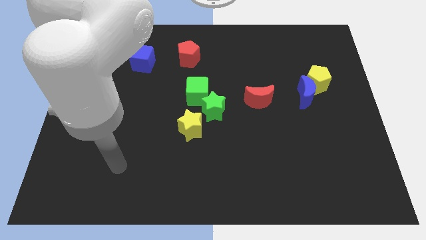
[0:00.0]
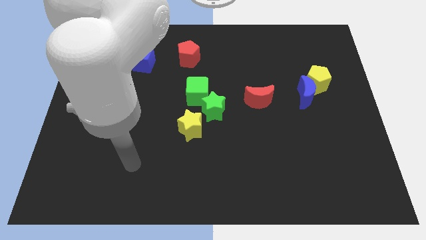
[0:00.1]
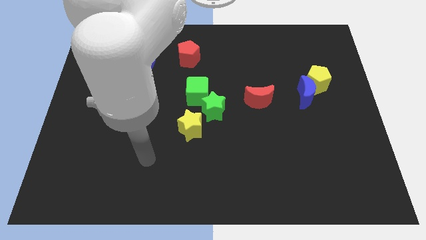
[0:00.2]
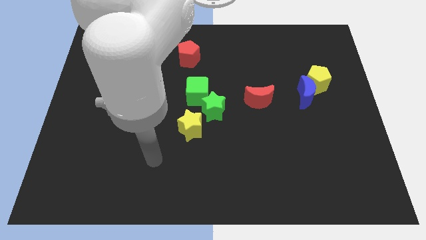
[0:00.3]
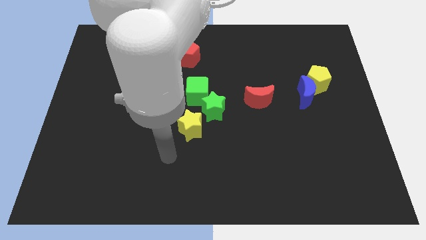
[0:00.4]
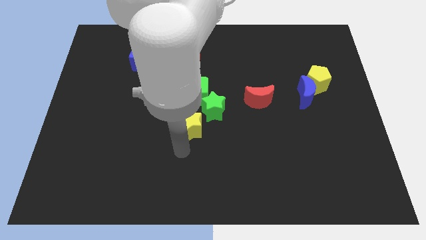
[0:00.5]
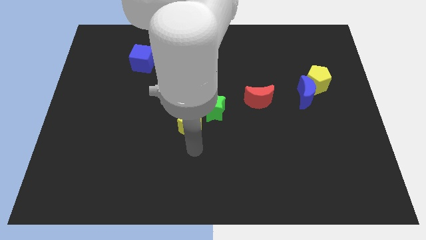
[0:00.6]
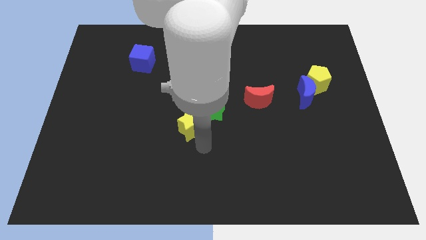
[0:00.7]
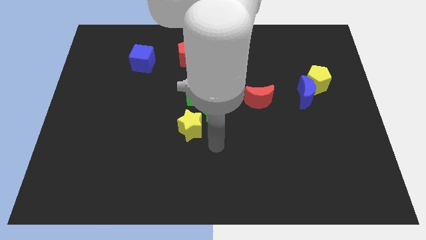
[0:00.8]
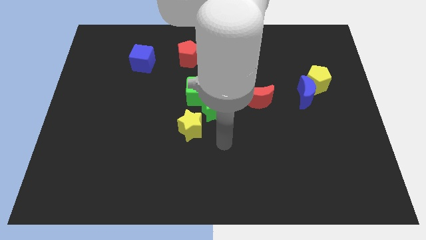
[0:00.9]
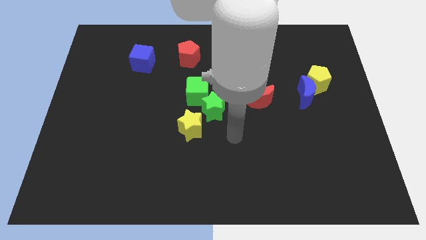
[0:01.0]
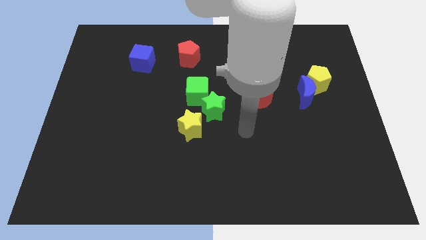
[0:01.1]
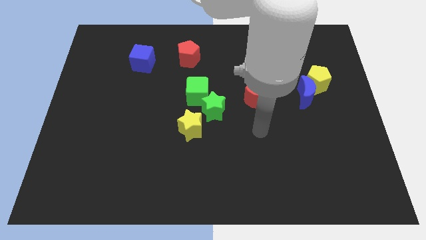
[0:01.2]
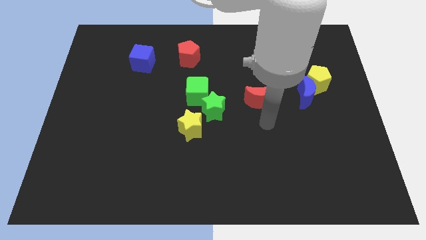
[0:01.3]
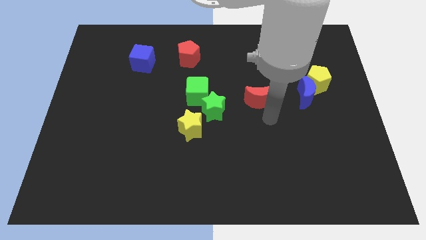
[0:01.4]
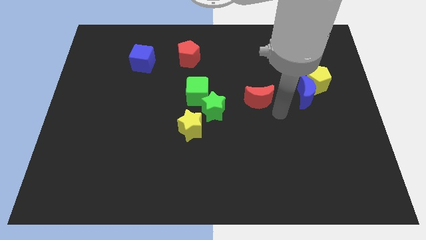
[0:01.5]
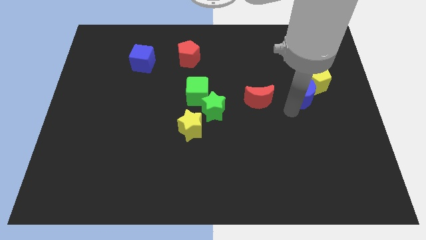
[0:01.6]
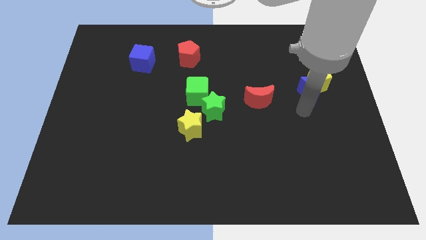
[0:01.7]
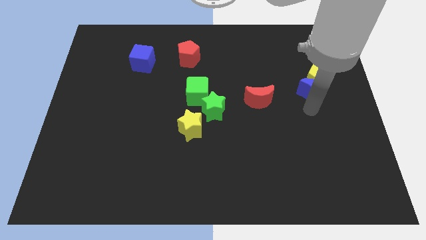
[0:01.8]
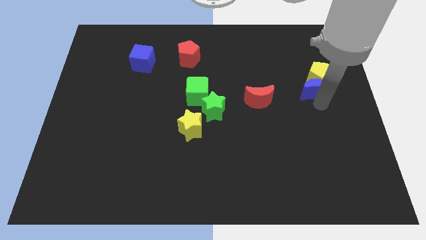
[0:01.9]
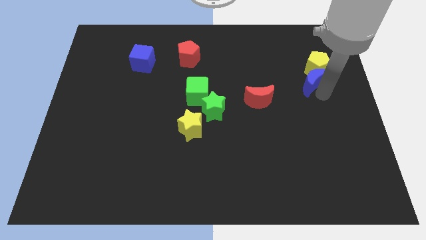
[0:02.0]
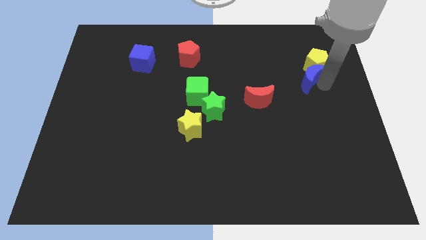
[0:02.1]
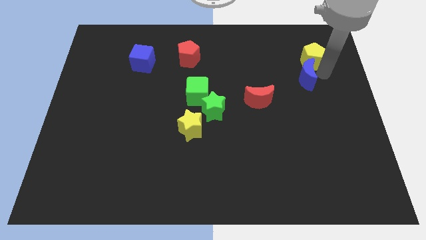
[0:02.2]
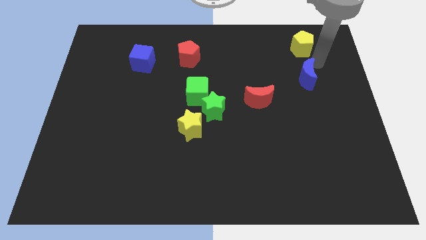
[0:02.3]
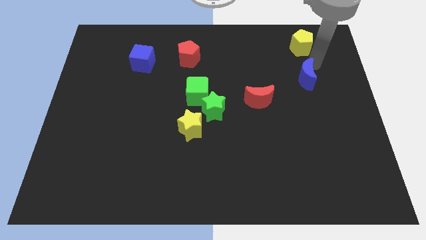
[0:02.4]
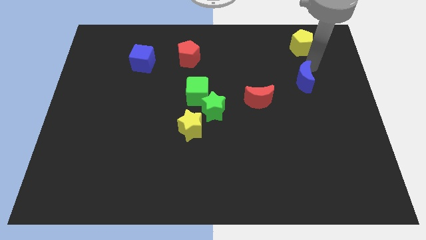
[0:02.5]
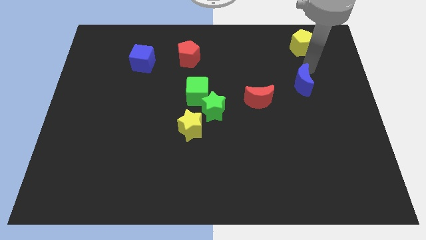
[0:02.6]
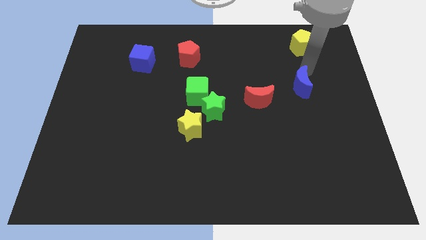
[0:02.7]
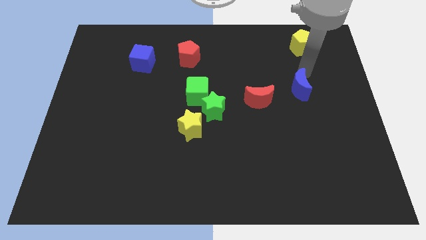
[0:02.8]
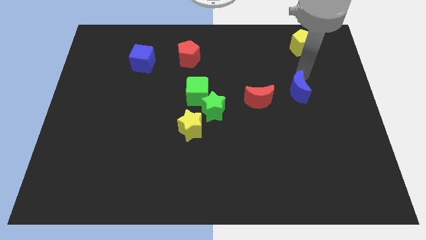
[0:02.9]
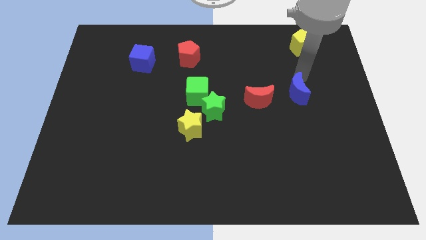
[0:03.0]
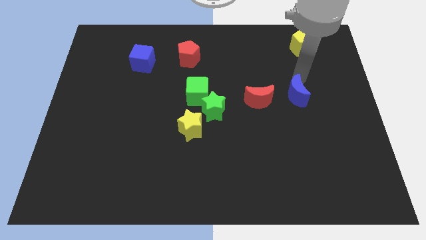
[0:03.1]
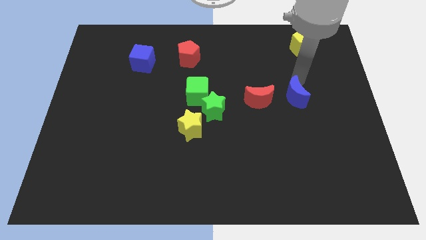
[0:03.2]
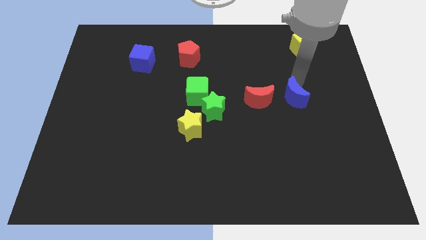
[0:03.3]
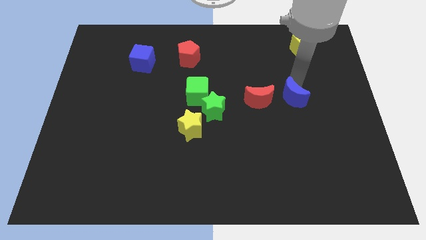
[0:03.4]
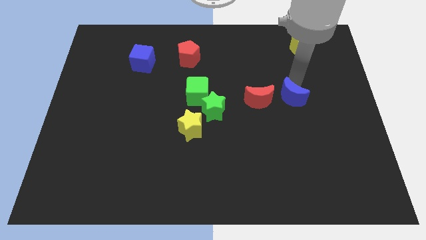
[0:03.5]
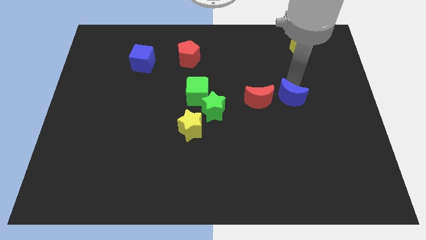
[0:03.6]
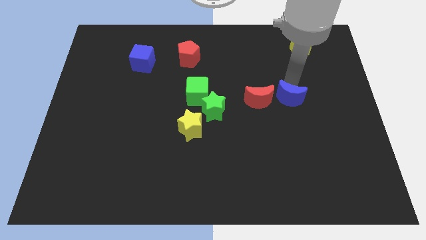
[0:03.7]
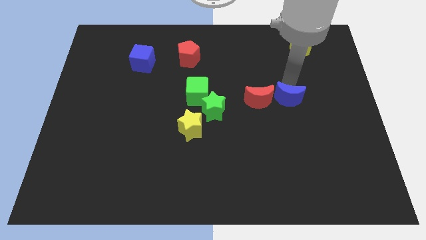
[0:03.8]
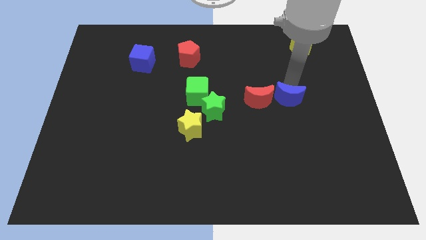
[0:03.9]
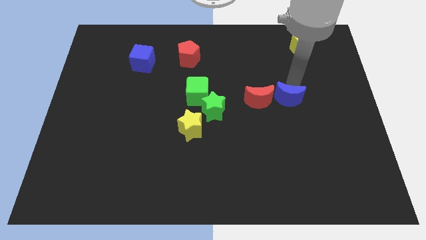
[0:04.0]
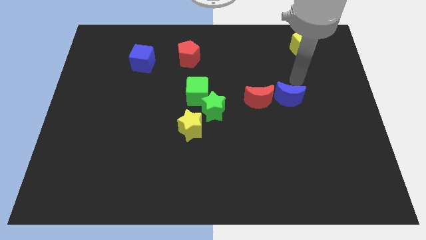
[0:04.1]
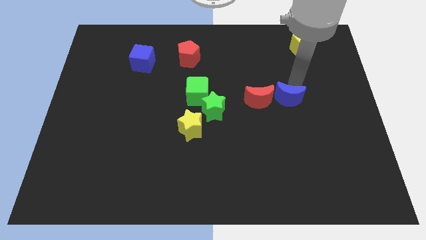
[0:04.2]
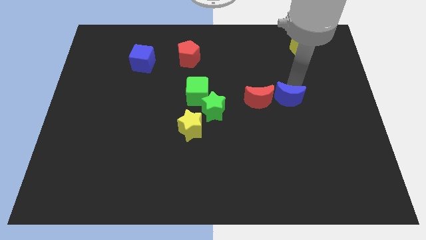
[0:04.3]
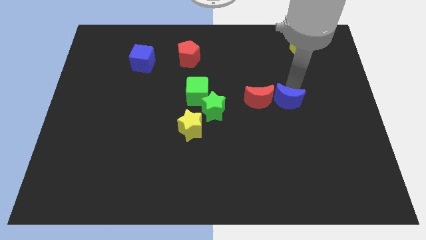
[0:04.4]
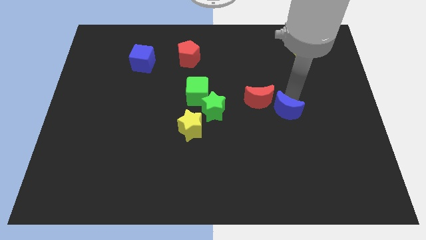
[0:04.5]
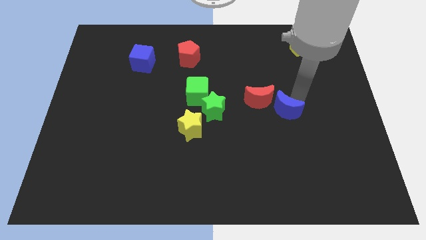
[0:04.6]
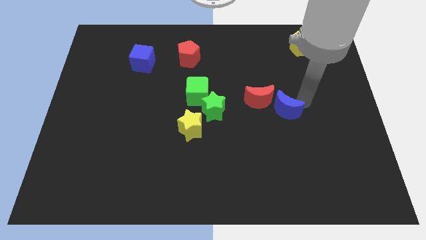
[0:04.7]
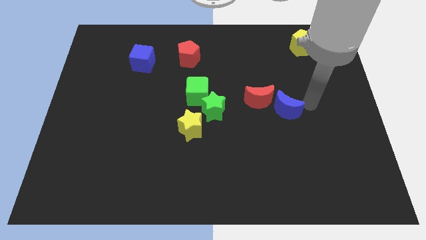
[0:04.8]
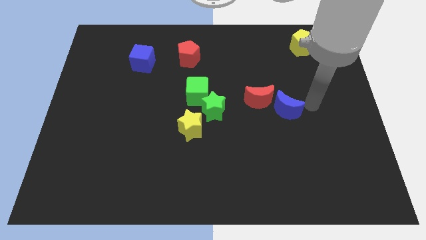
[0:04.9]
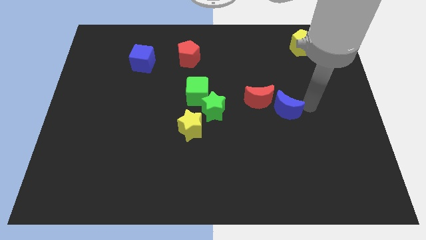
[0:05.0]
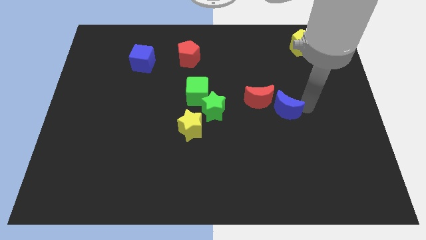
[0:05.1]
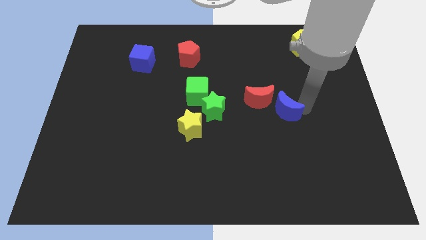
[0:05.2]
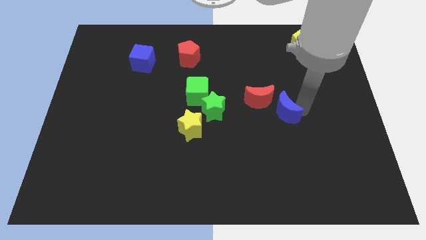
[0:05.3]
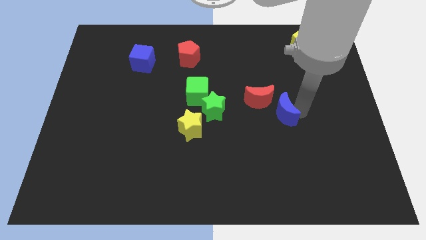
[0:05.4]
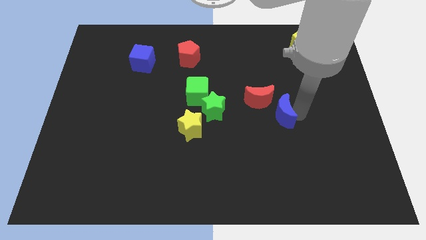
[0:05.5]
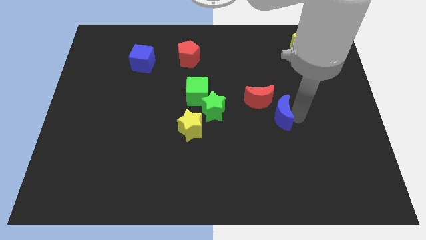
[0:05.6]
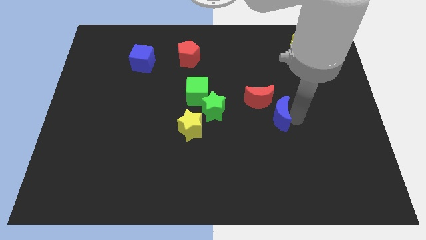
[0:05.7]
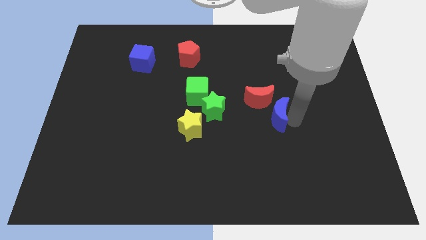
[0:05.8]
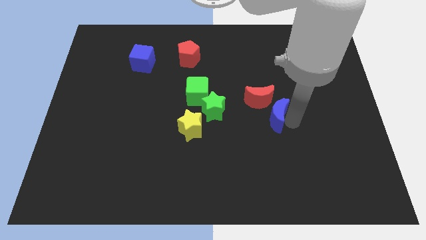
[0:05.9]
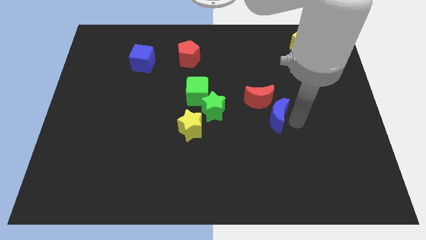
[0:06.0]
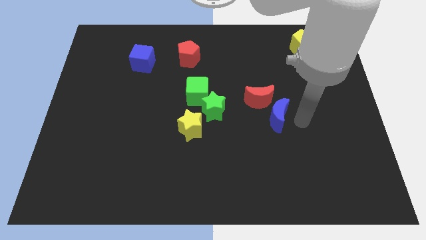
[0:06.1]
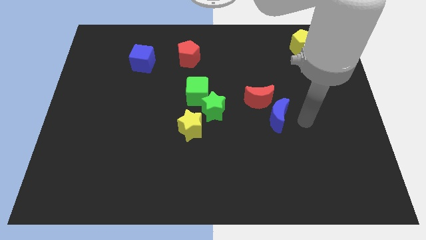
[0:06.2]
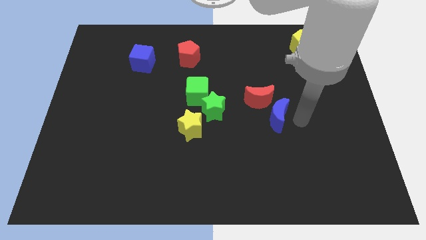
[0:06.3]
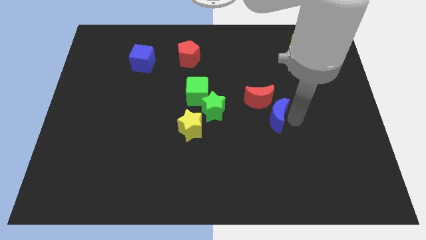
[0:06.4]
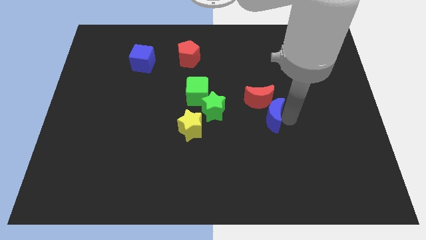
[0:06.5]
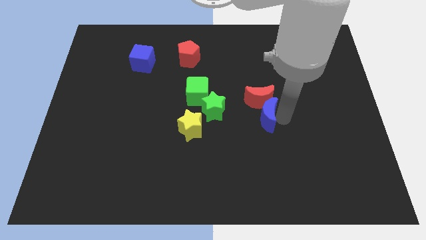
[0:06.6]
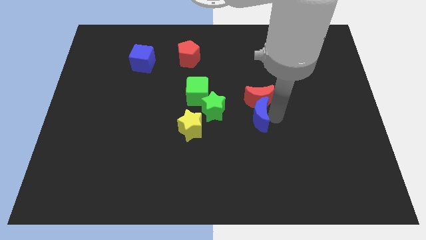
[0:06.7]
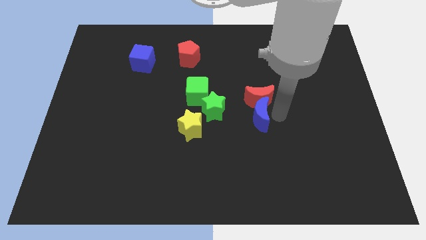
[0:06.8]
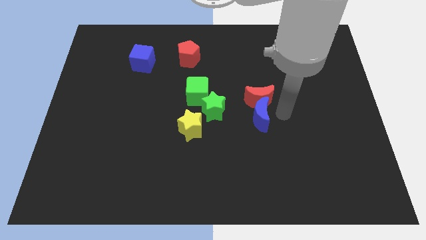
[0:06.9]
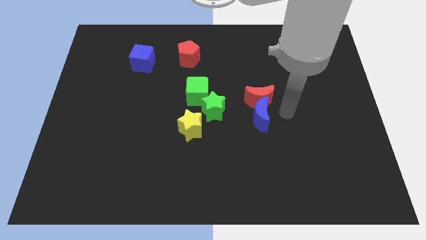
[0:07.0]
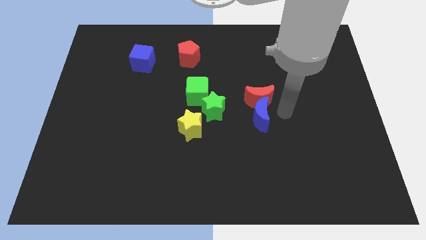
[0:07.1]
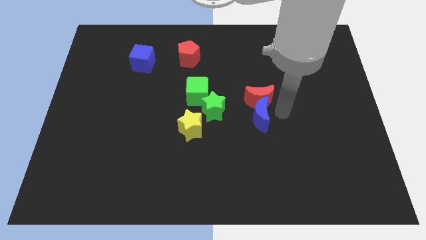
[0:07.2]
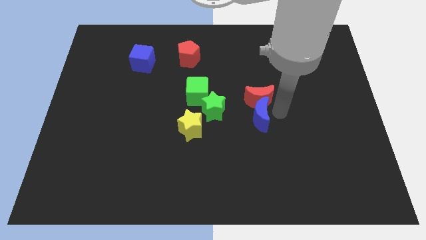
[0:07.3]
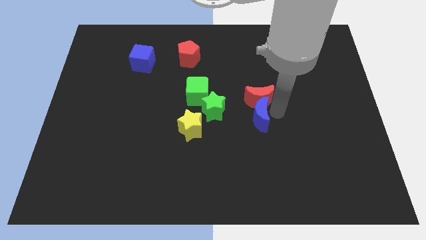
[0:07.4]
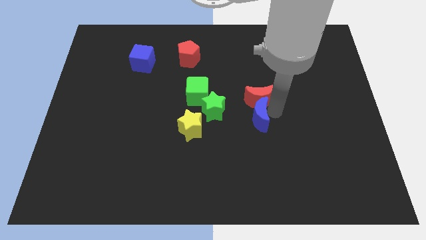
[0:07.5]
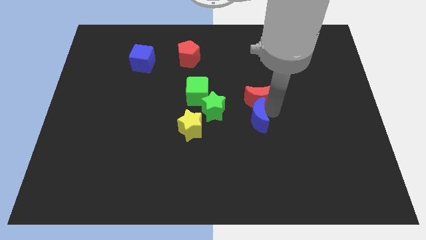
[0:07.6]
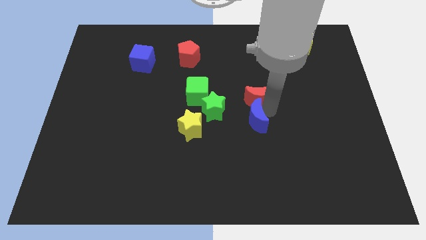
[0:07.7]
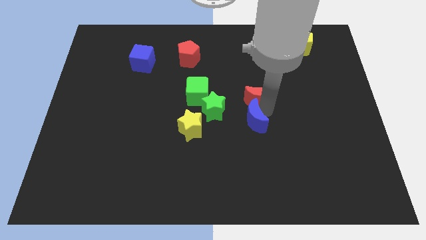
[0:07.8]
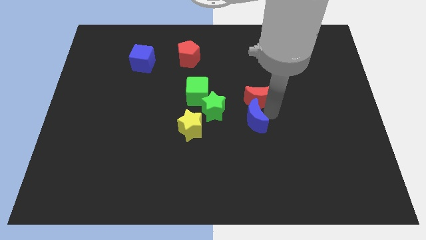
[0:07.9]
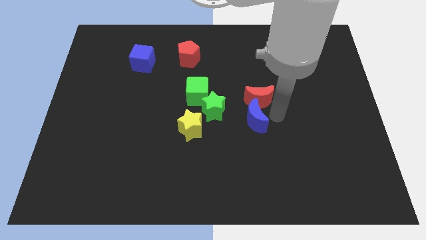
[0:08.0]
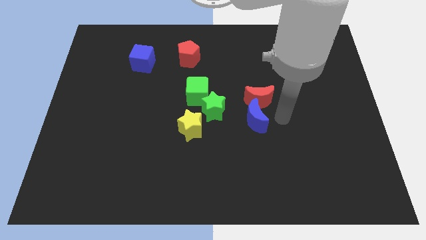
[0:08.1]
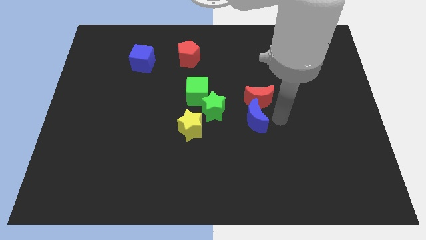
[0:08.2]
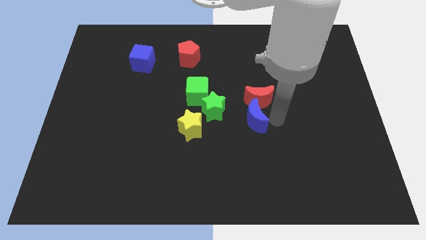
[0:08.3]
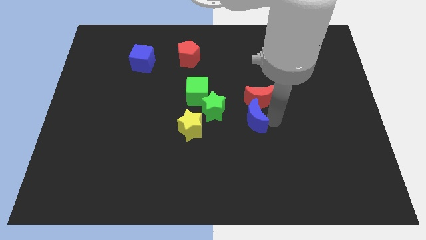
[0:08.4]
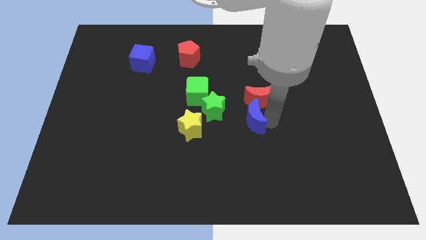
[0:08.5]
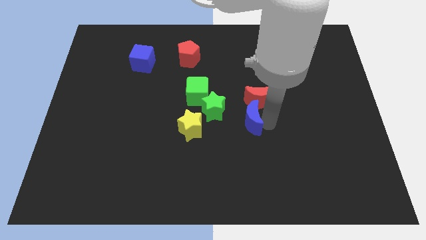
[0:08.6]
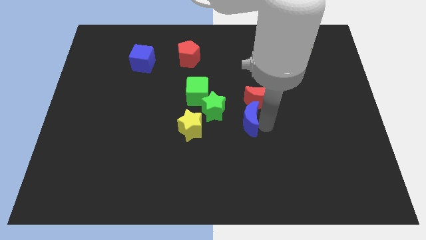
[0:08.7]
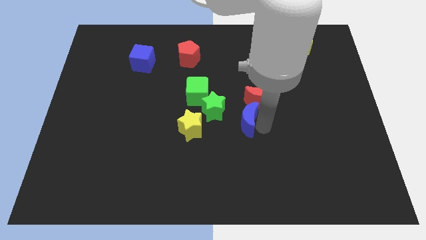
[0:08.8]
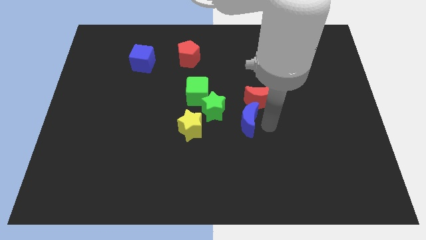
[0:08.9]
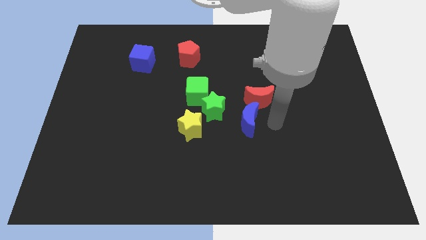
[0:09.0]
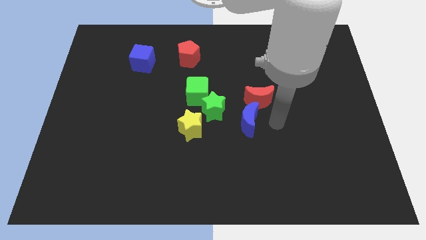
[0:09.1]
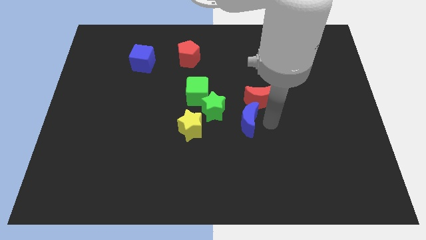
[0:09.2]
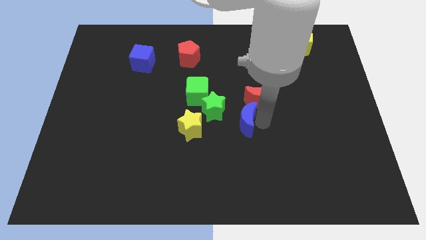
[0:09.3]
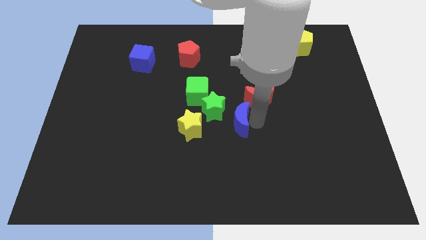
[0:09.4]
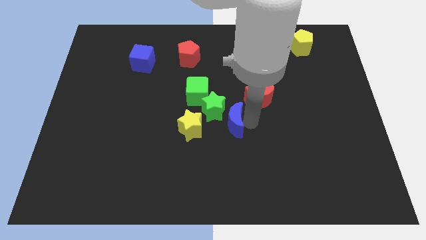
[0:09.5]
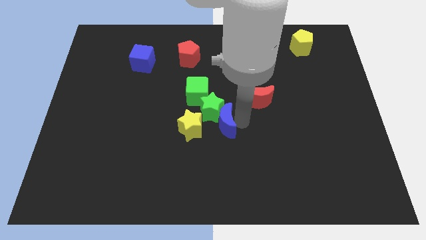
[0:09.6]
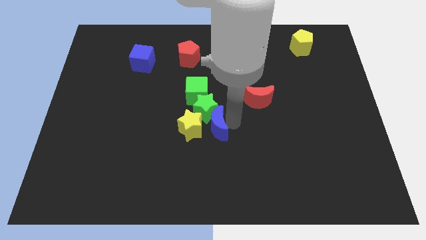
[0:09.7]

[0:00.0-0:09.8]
push the blue moon towards the yellow star
